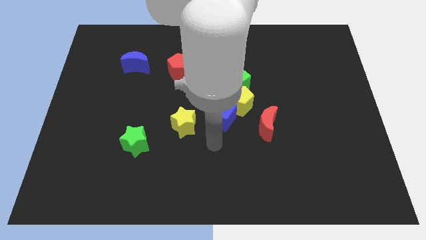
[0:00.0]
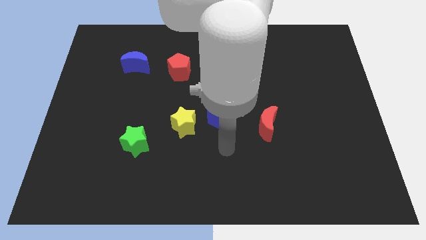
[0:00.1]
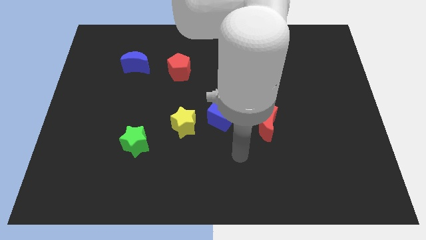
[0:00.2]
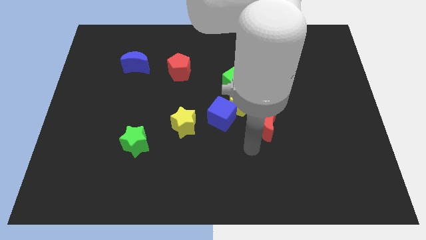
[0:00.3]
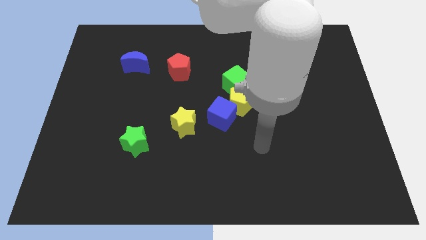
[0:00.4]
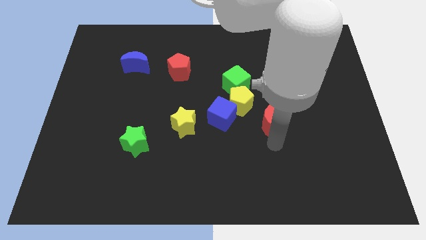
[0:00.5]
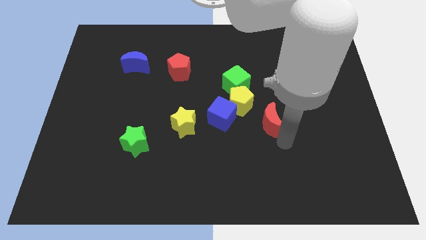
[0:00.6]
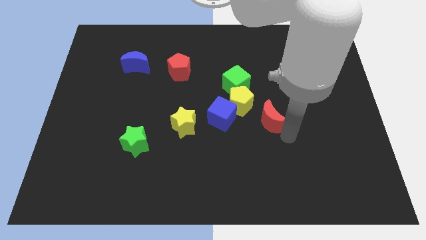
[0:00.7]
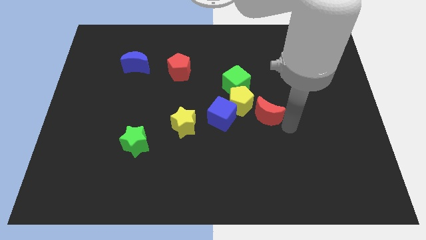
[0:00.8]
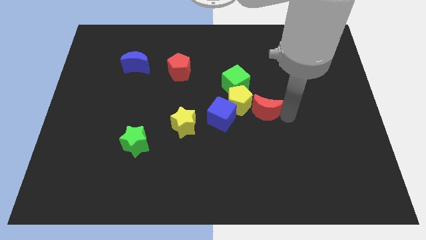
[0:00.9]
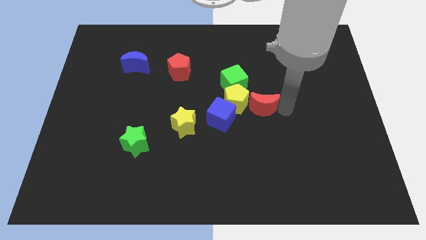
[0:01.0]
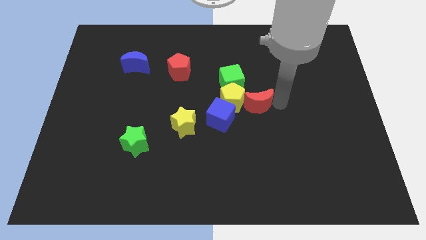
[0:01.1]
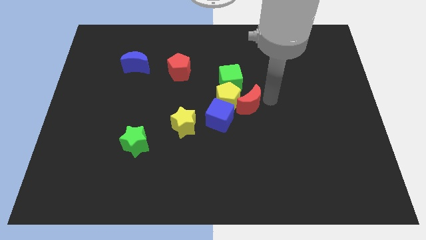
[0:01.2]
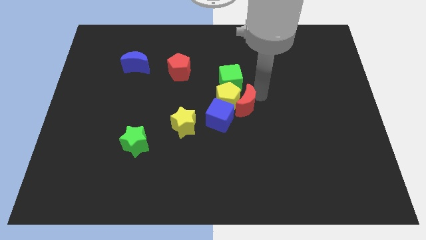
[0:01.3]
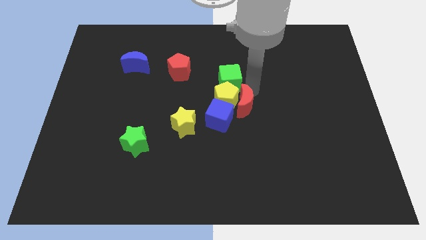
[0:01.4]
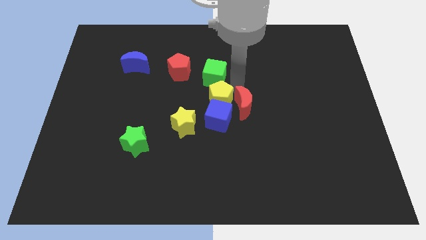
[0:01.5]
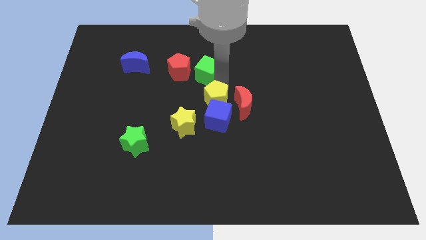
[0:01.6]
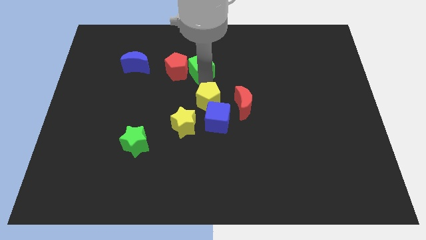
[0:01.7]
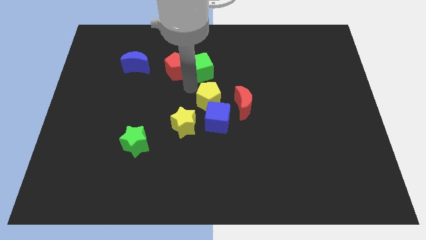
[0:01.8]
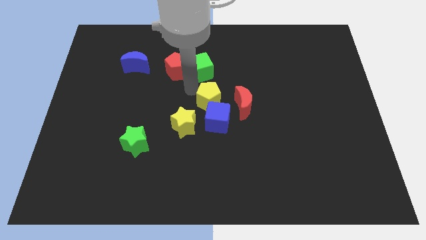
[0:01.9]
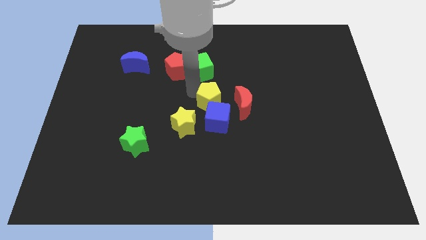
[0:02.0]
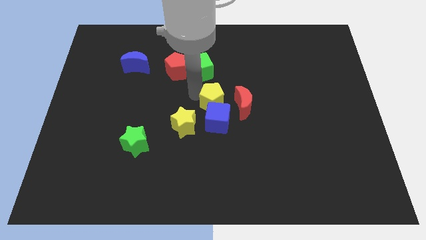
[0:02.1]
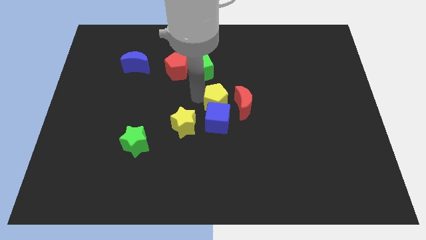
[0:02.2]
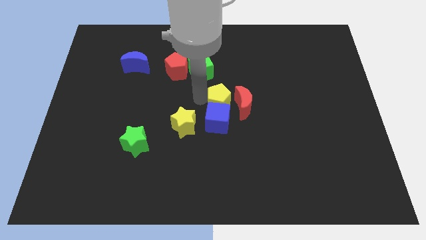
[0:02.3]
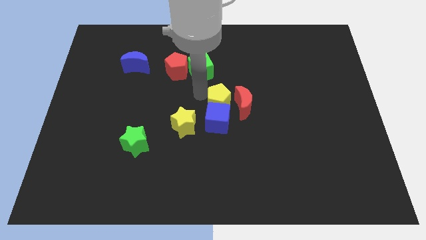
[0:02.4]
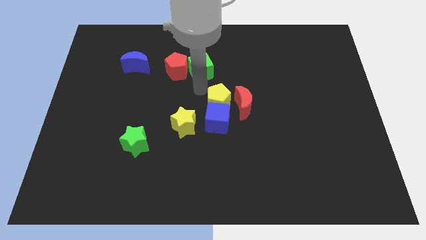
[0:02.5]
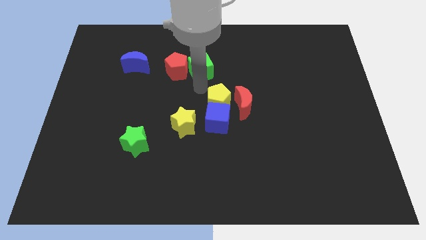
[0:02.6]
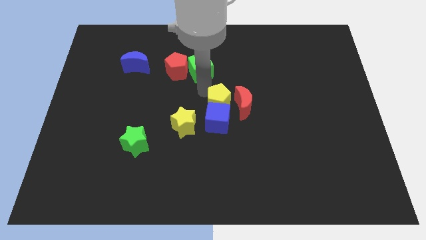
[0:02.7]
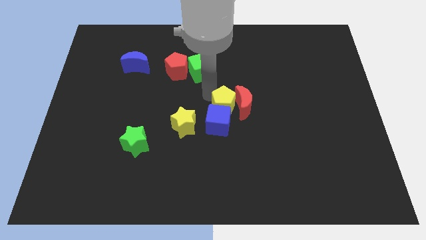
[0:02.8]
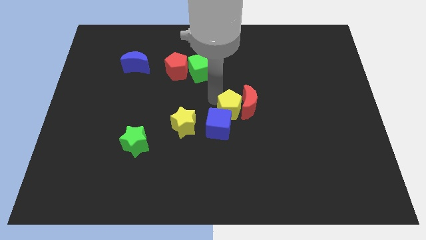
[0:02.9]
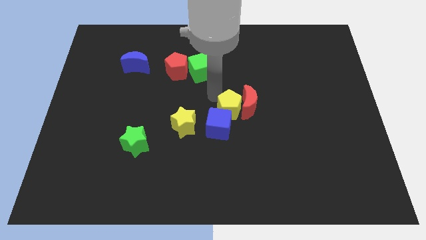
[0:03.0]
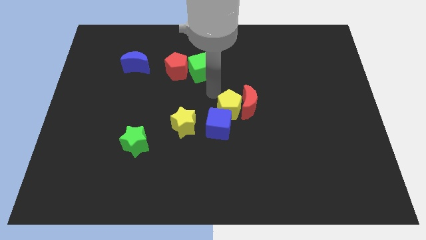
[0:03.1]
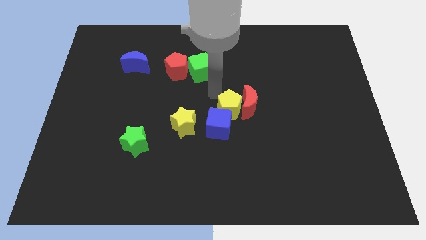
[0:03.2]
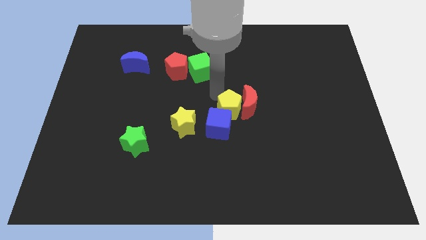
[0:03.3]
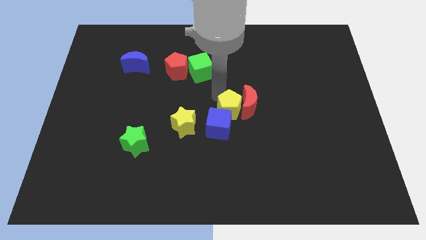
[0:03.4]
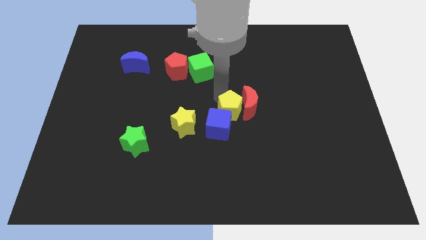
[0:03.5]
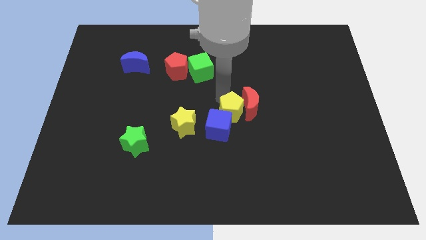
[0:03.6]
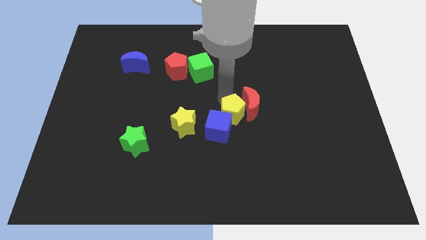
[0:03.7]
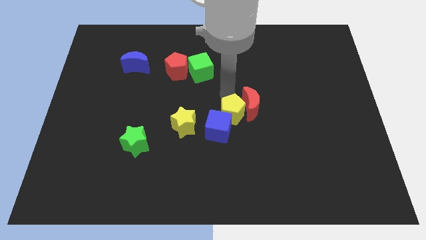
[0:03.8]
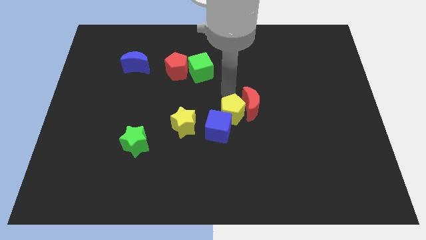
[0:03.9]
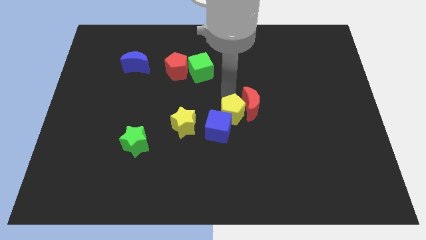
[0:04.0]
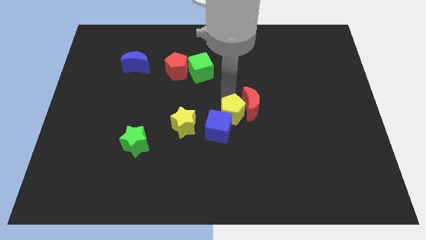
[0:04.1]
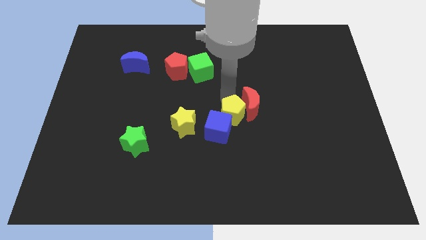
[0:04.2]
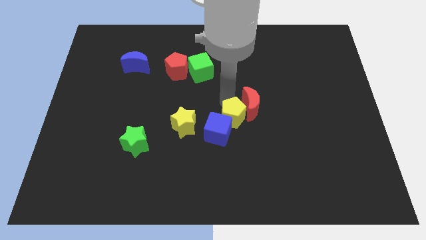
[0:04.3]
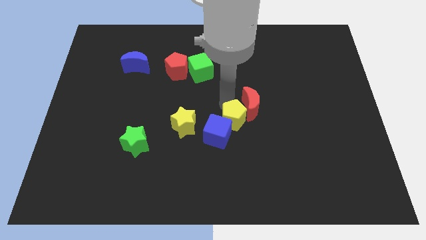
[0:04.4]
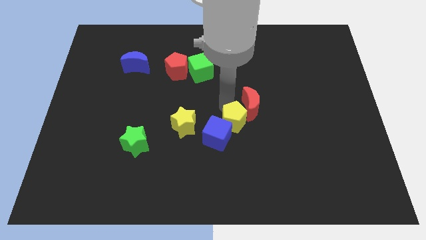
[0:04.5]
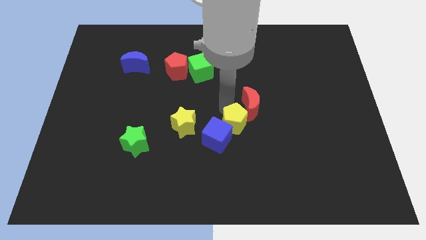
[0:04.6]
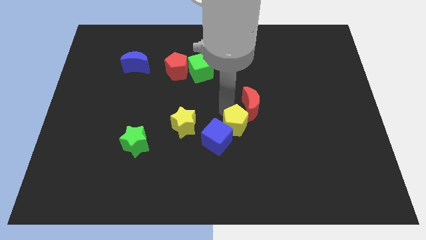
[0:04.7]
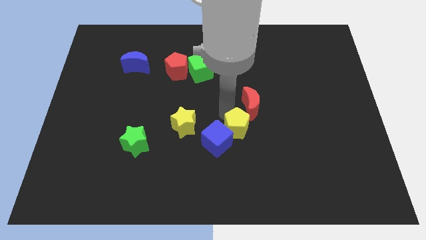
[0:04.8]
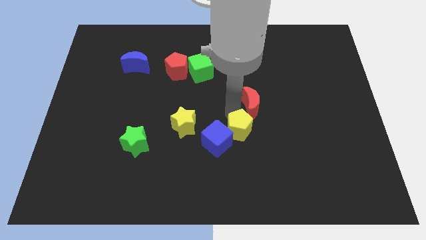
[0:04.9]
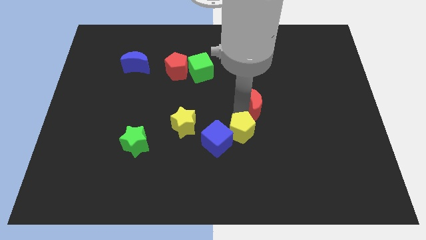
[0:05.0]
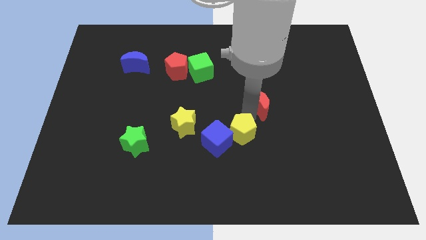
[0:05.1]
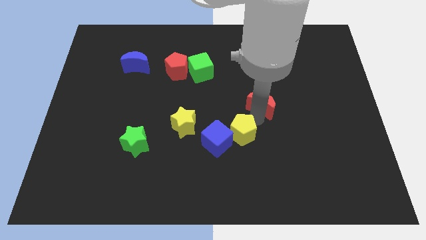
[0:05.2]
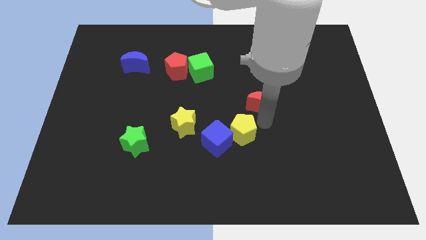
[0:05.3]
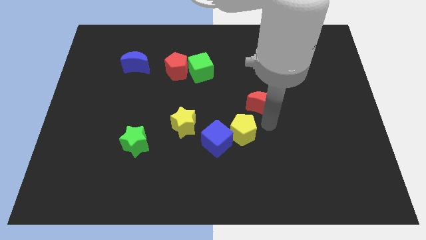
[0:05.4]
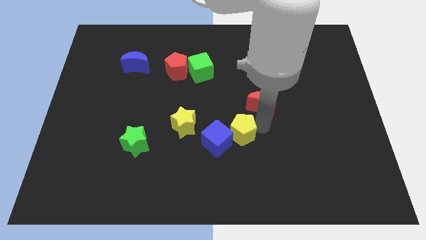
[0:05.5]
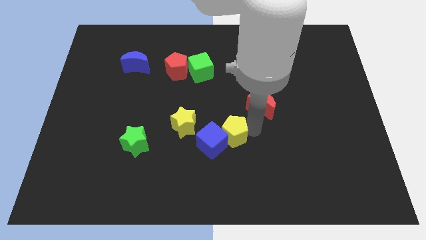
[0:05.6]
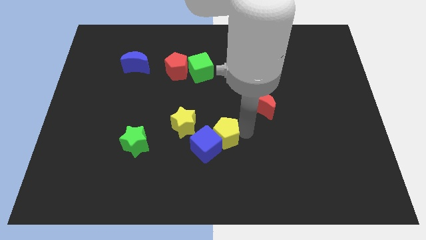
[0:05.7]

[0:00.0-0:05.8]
move the yellow pentagon diagonally downwards and to the left a little

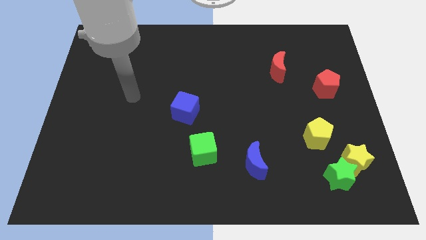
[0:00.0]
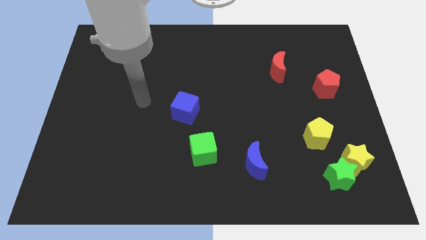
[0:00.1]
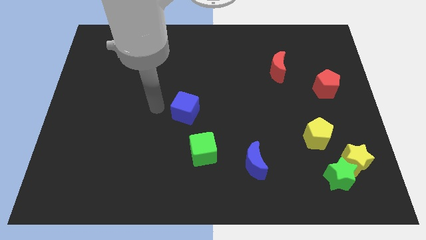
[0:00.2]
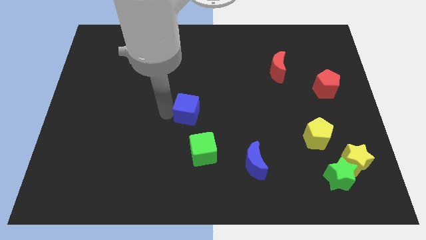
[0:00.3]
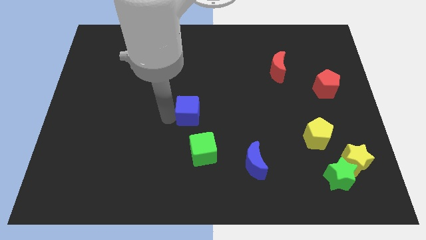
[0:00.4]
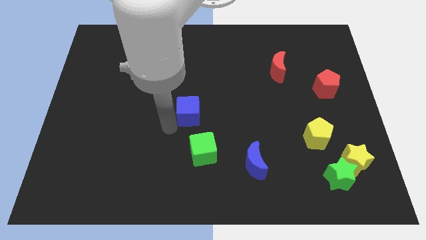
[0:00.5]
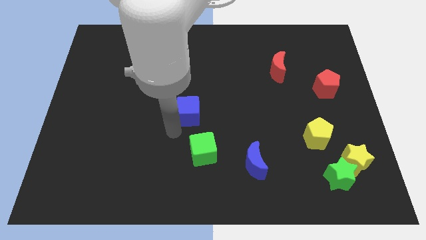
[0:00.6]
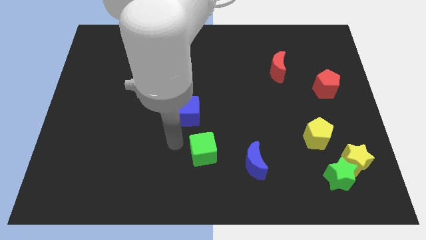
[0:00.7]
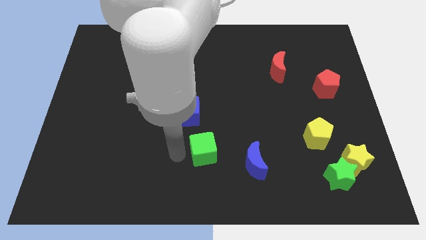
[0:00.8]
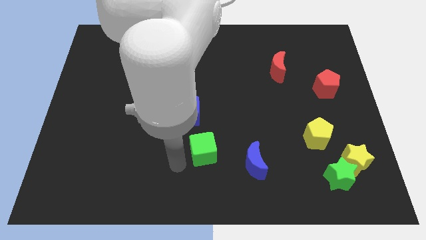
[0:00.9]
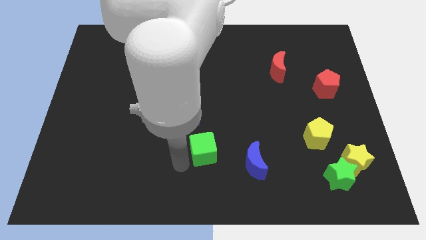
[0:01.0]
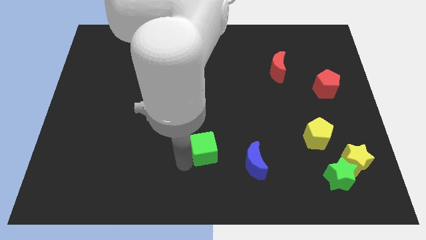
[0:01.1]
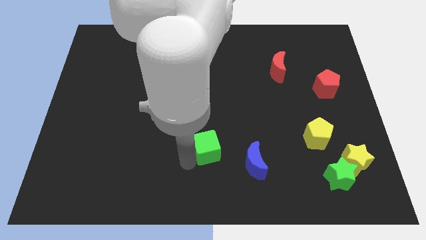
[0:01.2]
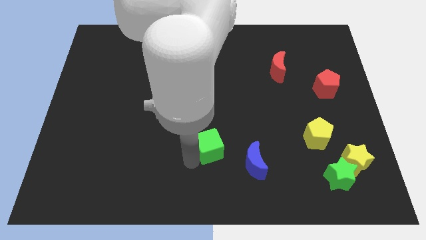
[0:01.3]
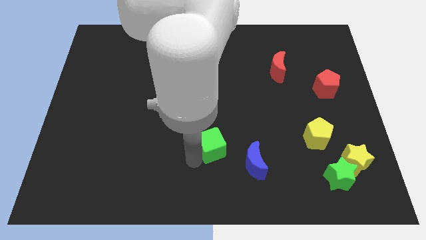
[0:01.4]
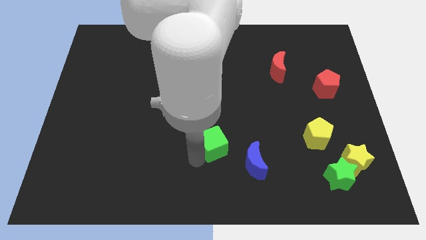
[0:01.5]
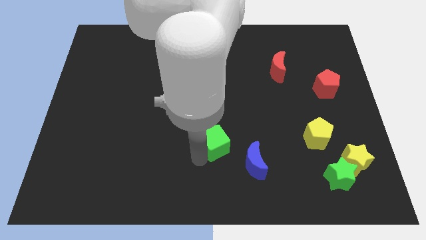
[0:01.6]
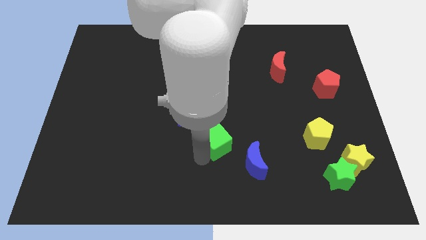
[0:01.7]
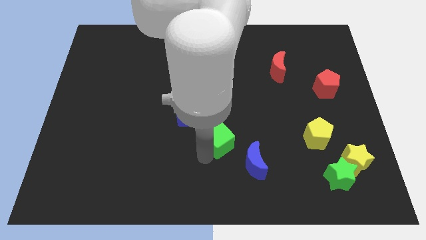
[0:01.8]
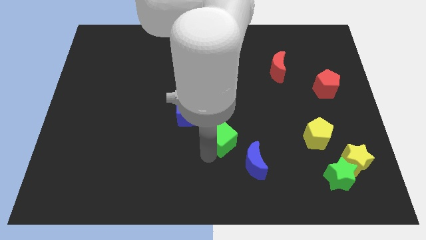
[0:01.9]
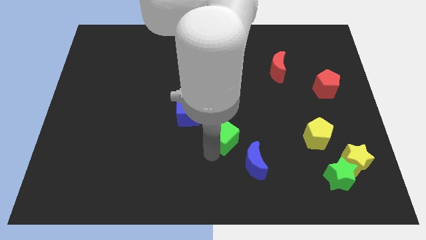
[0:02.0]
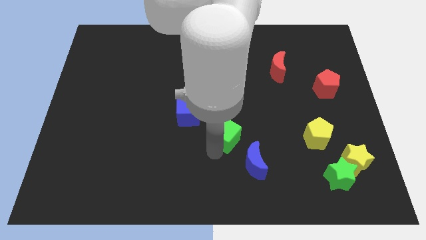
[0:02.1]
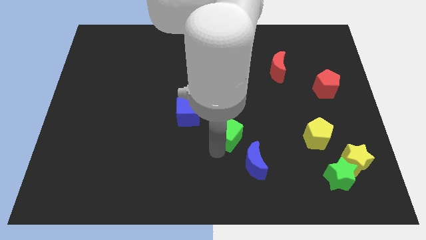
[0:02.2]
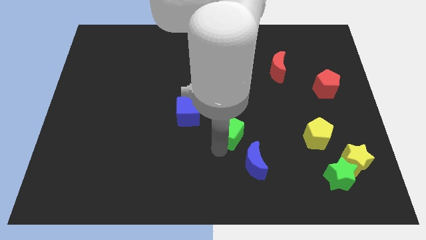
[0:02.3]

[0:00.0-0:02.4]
slide the green cube slightly up and right diagonally

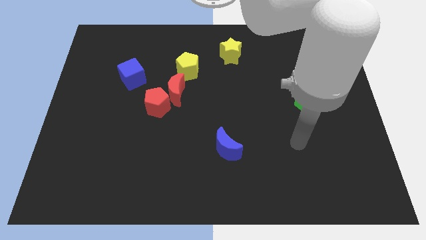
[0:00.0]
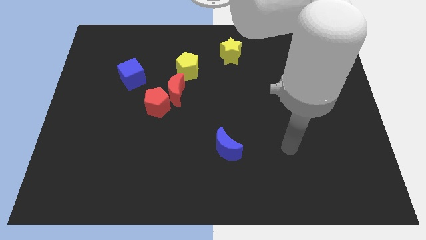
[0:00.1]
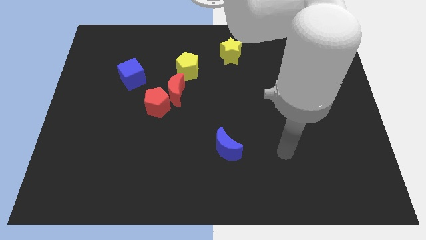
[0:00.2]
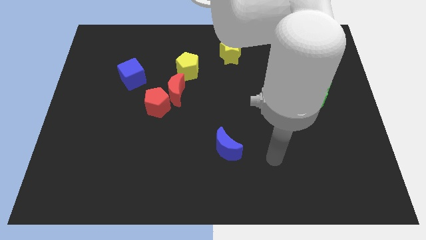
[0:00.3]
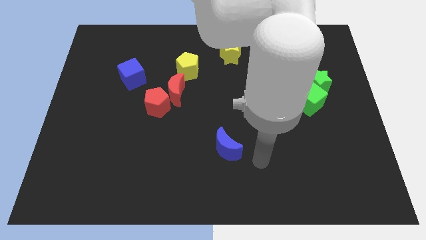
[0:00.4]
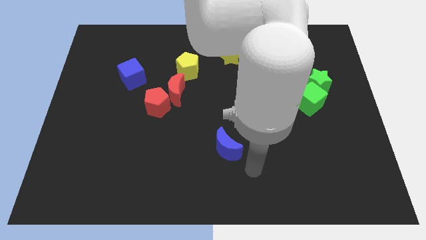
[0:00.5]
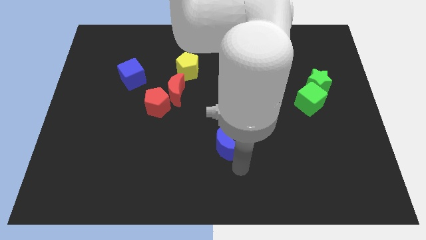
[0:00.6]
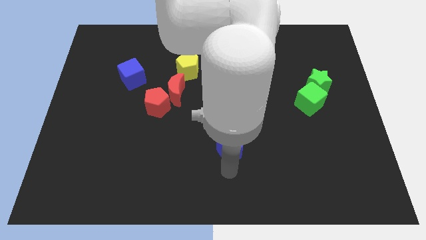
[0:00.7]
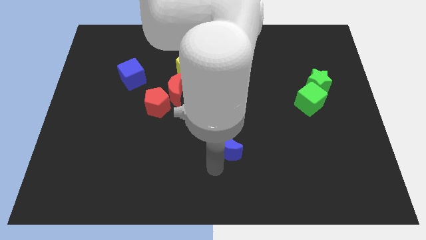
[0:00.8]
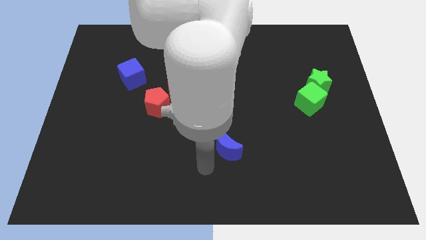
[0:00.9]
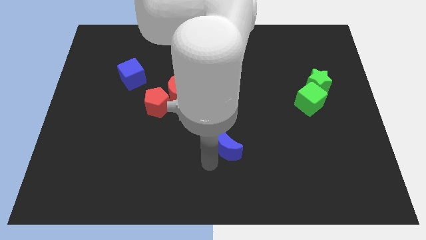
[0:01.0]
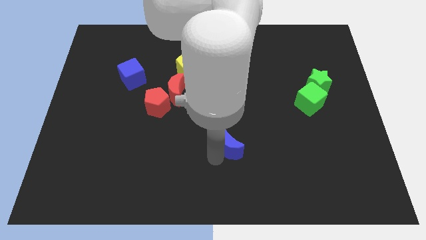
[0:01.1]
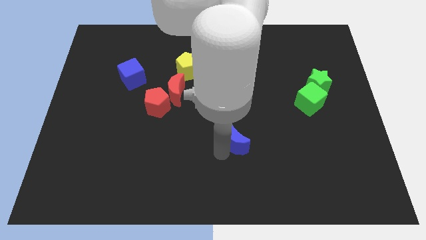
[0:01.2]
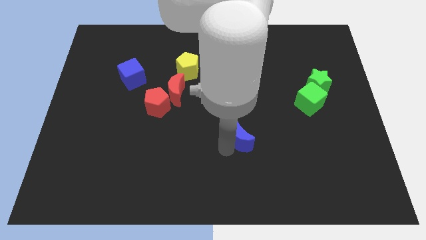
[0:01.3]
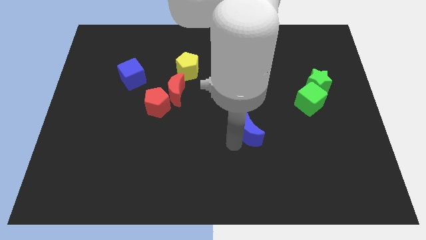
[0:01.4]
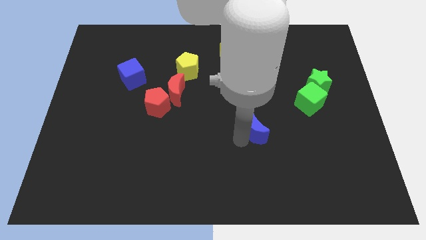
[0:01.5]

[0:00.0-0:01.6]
slightly move the blue moon up and to the right
